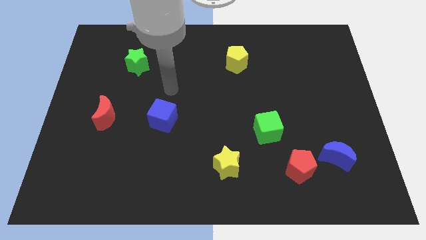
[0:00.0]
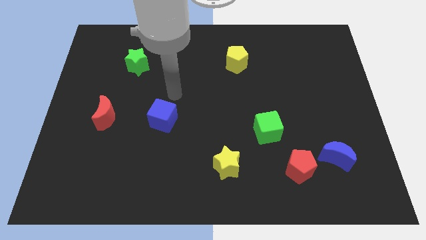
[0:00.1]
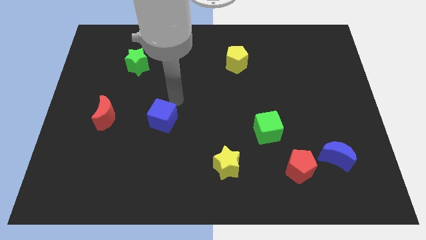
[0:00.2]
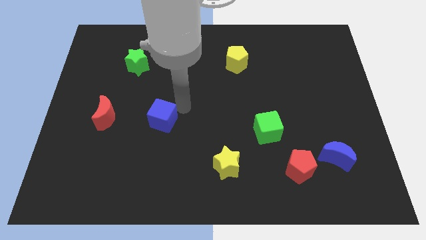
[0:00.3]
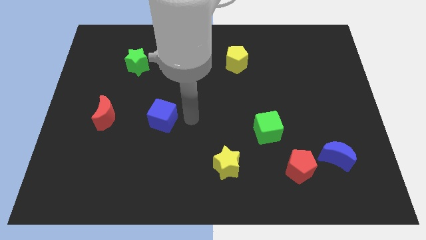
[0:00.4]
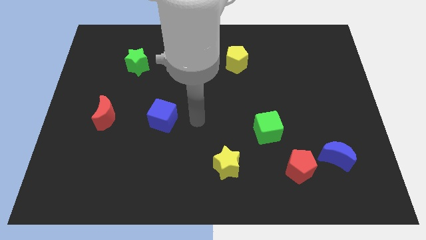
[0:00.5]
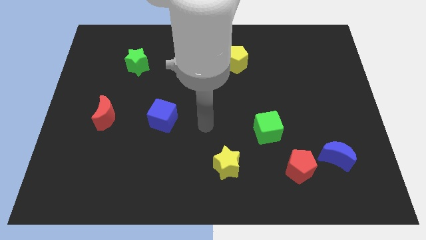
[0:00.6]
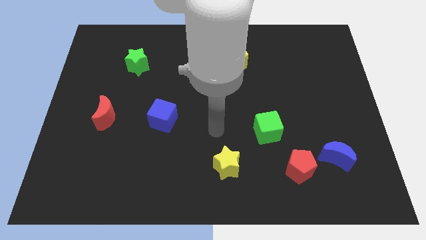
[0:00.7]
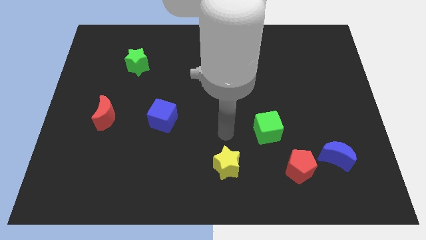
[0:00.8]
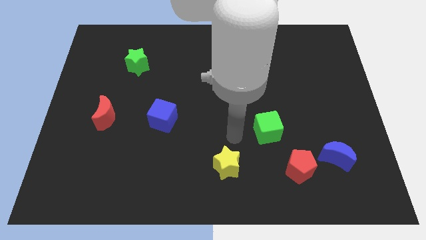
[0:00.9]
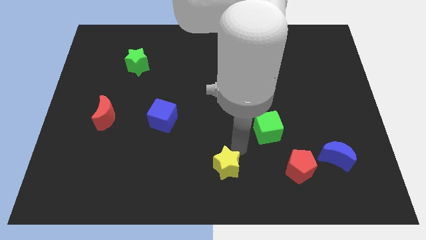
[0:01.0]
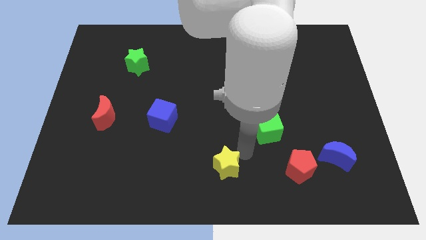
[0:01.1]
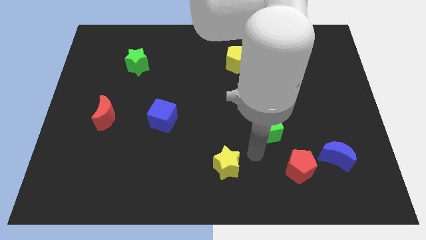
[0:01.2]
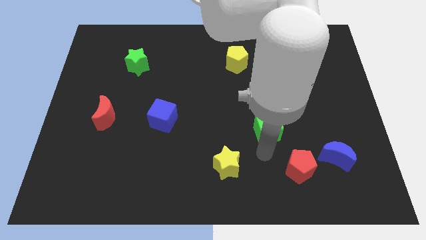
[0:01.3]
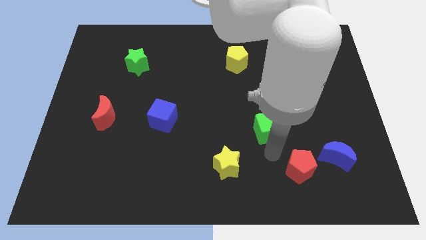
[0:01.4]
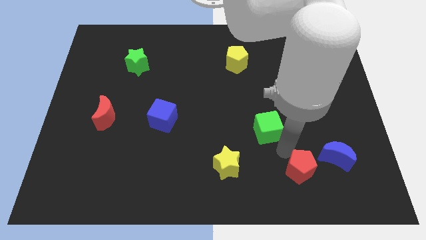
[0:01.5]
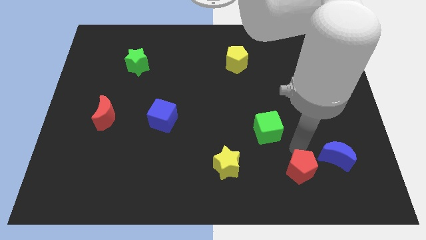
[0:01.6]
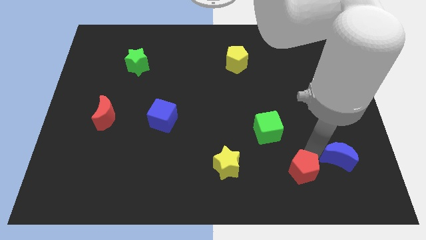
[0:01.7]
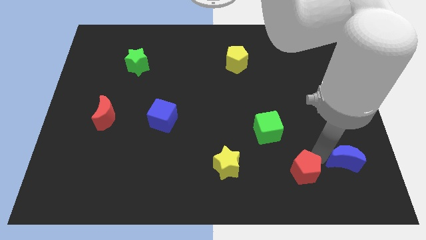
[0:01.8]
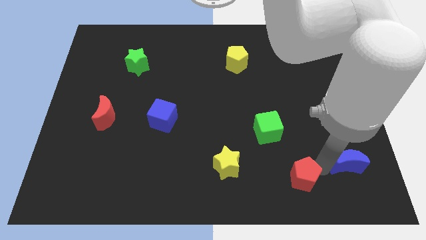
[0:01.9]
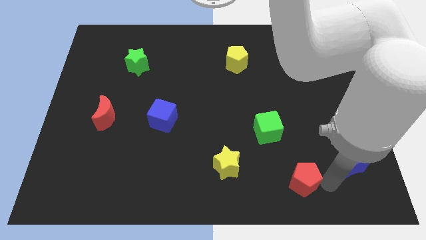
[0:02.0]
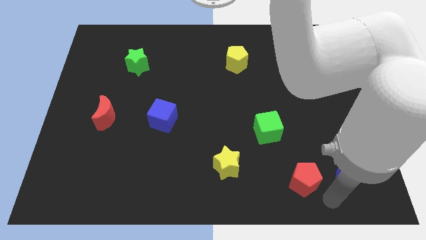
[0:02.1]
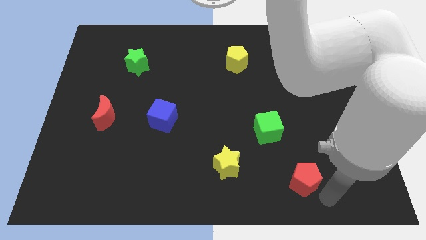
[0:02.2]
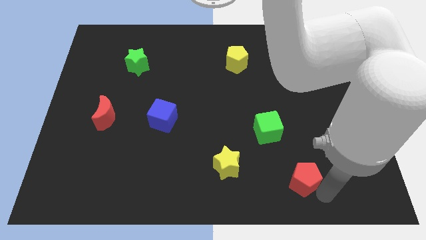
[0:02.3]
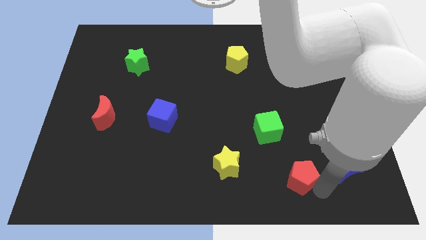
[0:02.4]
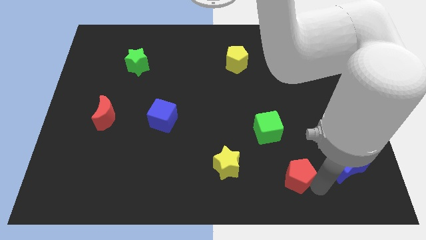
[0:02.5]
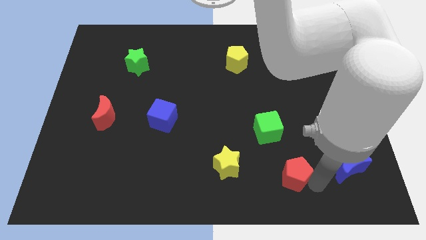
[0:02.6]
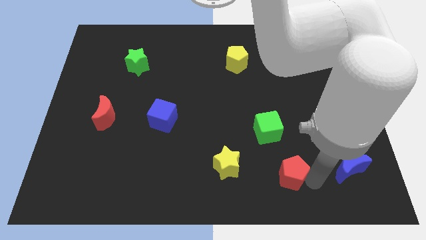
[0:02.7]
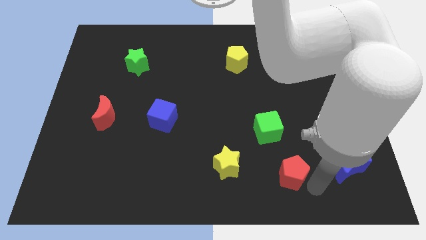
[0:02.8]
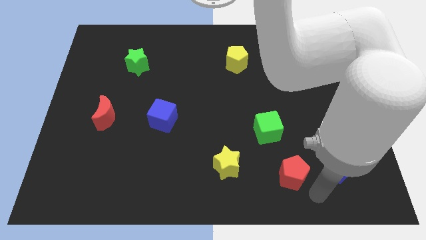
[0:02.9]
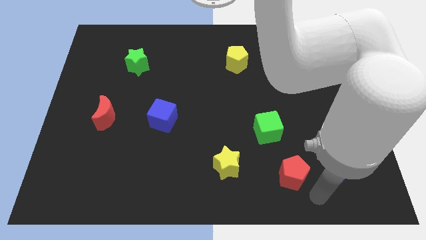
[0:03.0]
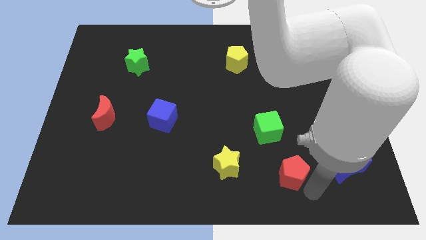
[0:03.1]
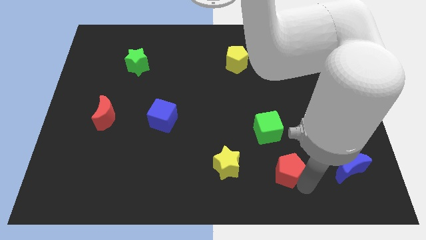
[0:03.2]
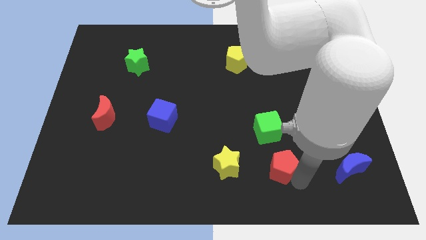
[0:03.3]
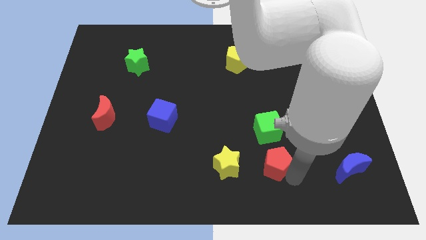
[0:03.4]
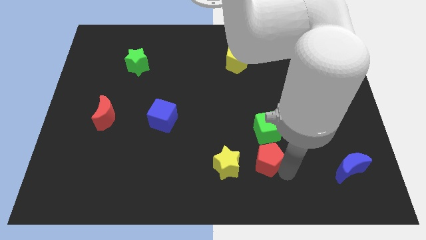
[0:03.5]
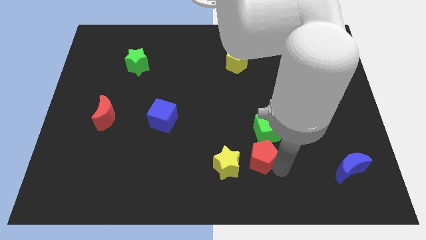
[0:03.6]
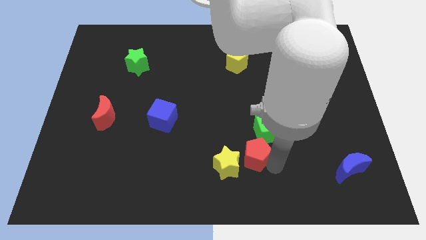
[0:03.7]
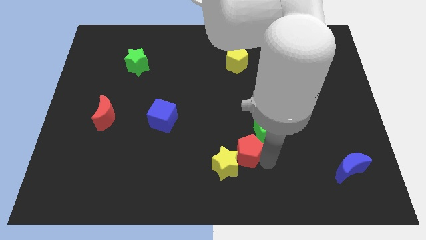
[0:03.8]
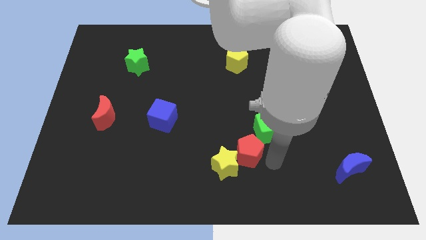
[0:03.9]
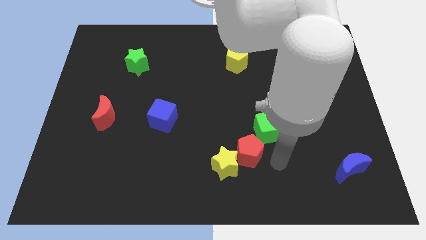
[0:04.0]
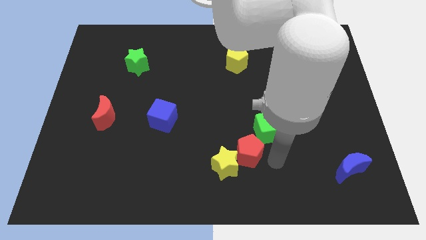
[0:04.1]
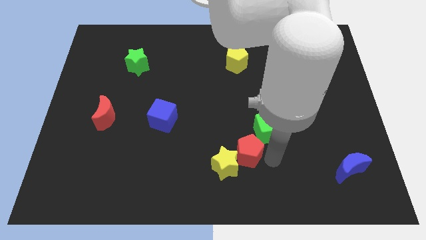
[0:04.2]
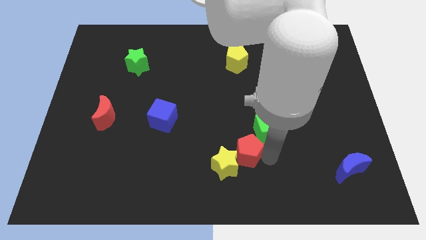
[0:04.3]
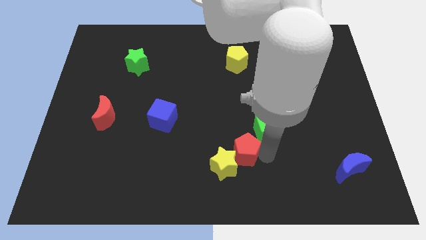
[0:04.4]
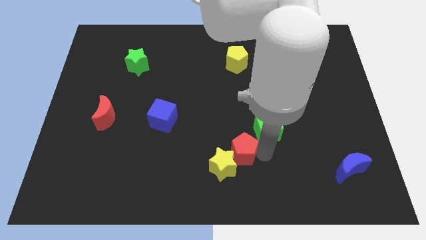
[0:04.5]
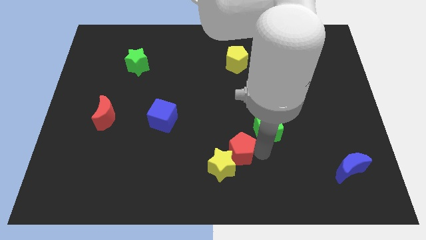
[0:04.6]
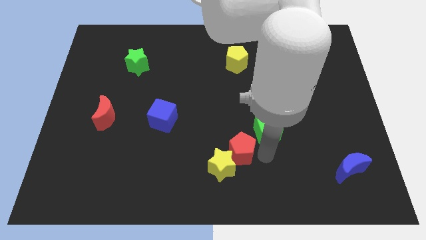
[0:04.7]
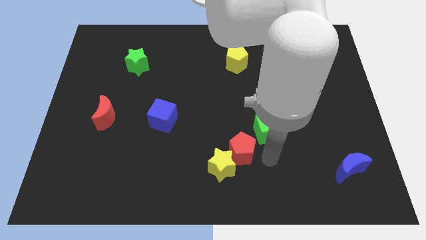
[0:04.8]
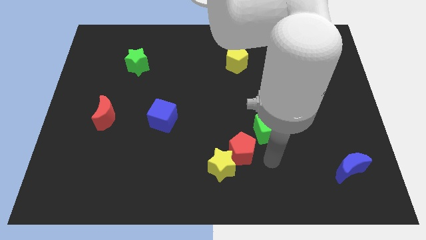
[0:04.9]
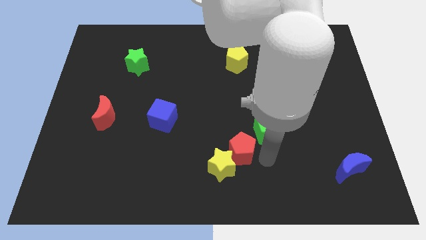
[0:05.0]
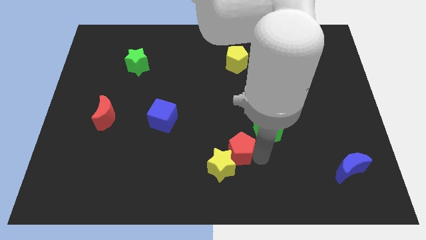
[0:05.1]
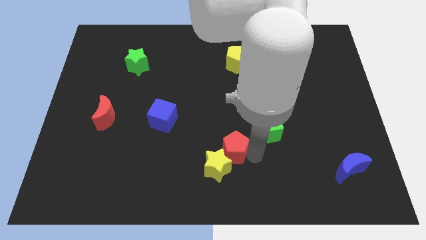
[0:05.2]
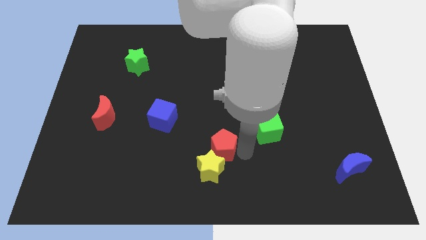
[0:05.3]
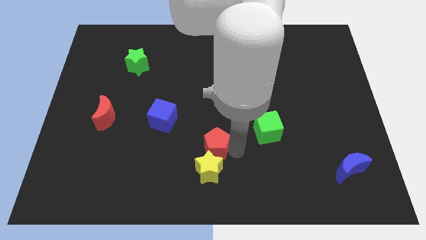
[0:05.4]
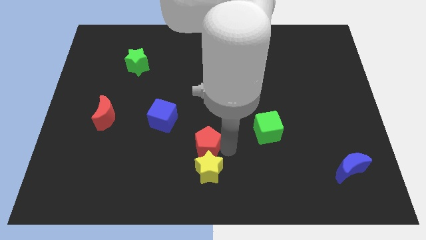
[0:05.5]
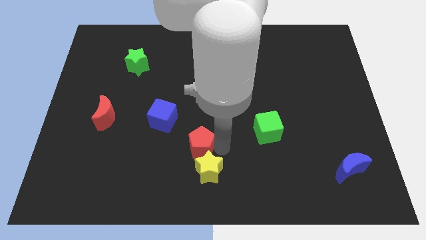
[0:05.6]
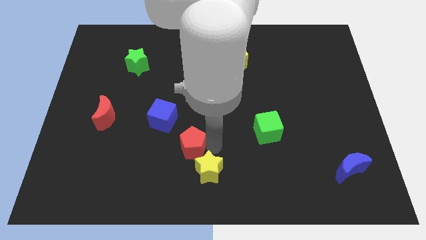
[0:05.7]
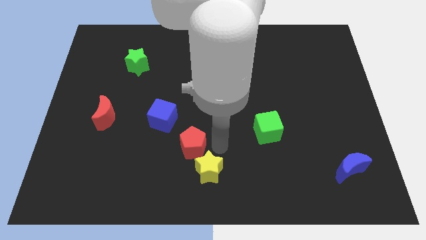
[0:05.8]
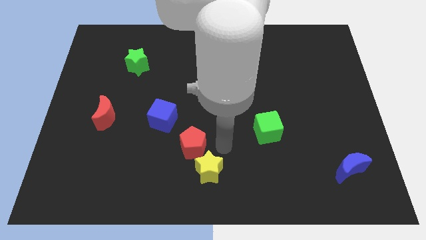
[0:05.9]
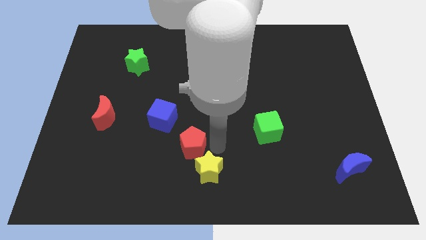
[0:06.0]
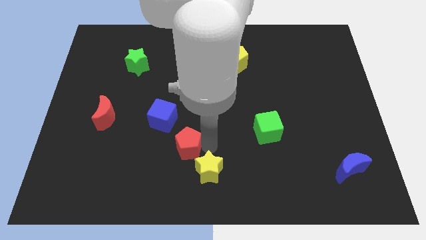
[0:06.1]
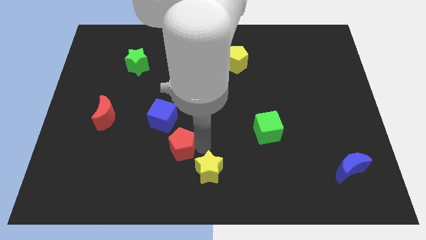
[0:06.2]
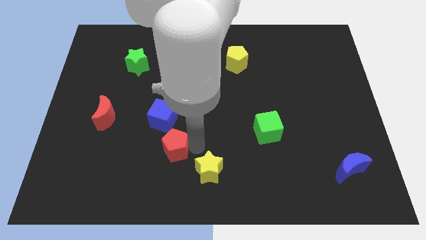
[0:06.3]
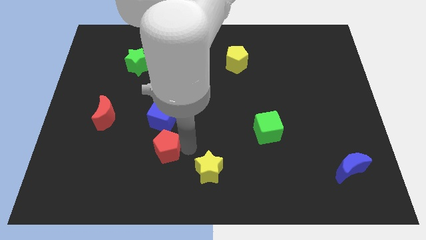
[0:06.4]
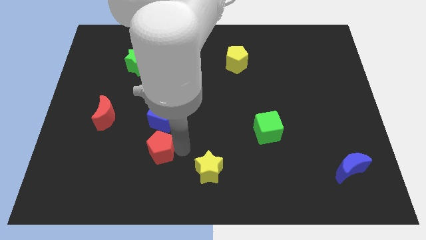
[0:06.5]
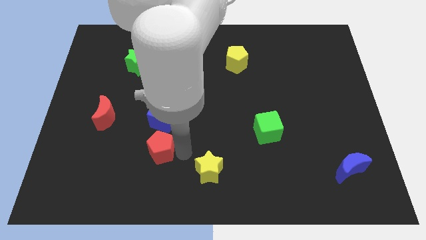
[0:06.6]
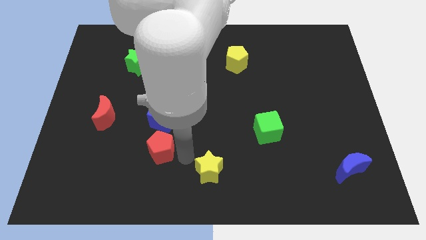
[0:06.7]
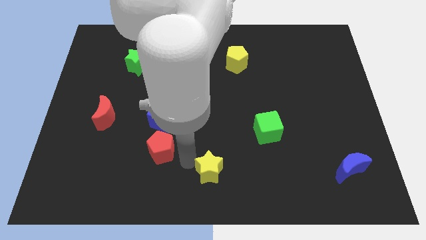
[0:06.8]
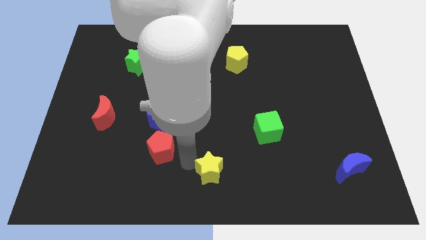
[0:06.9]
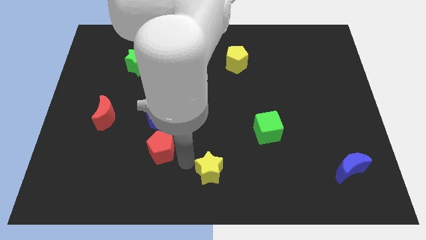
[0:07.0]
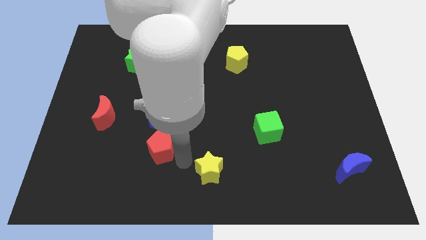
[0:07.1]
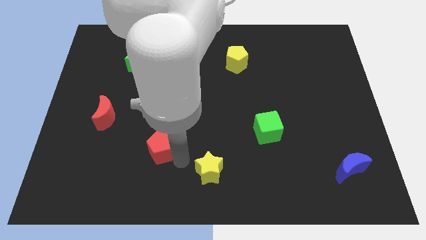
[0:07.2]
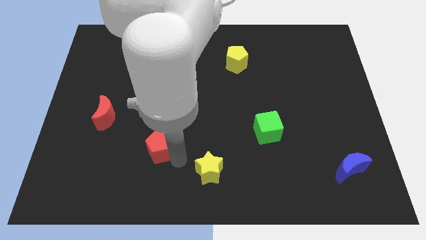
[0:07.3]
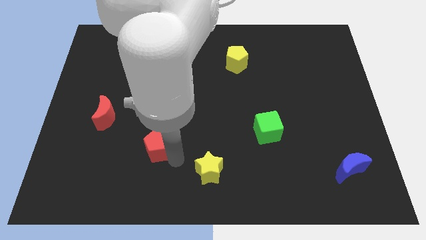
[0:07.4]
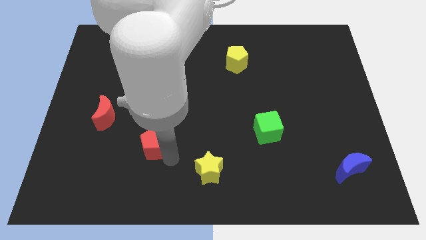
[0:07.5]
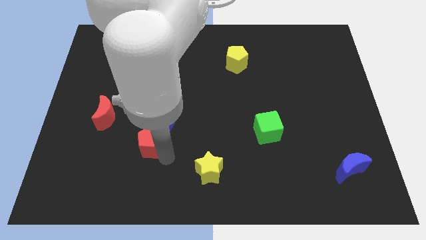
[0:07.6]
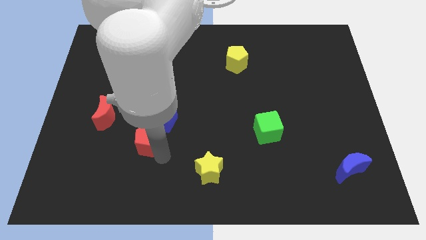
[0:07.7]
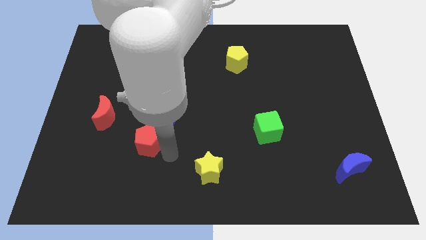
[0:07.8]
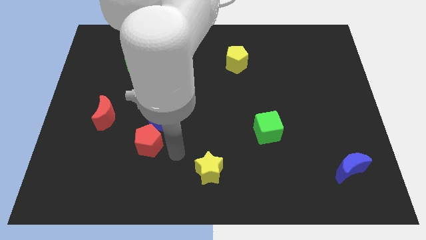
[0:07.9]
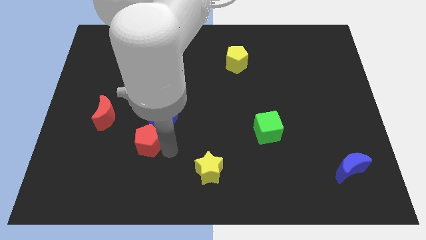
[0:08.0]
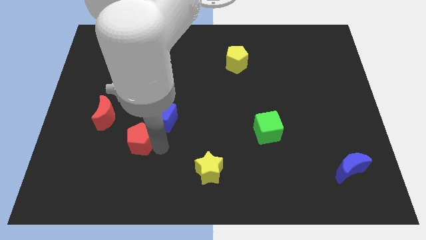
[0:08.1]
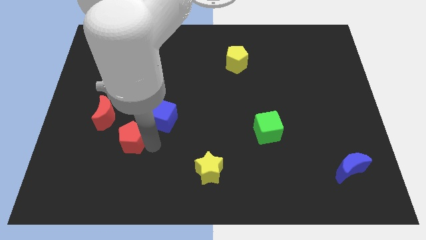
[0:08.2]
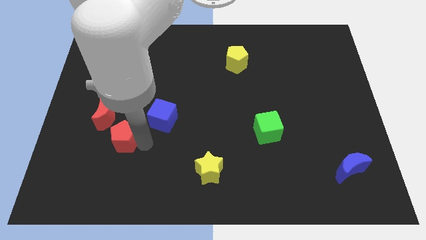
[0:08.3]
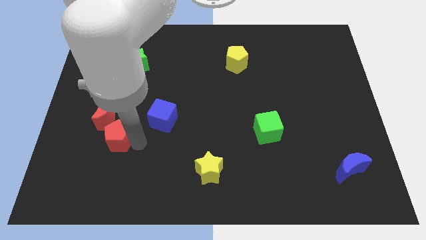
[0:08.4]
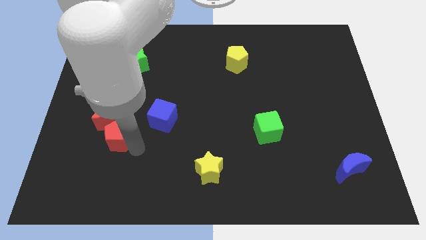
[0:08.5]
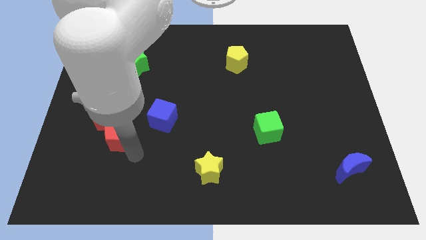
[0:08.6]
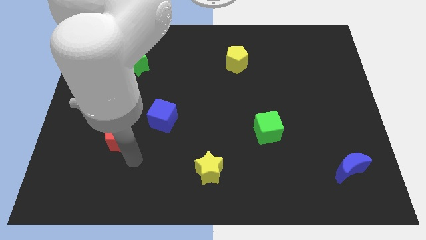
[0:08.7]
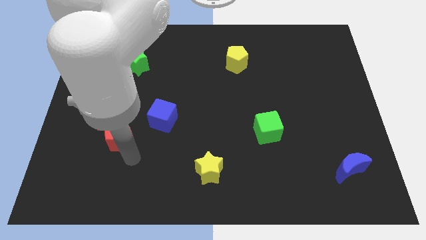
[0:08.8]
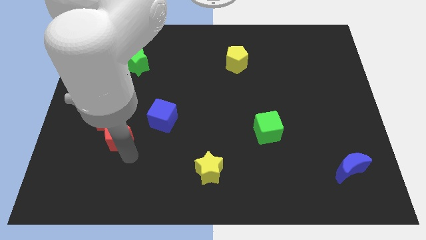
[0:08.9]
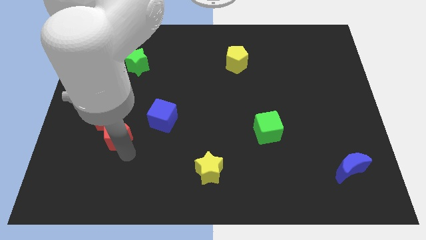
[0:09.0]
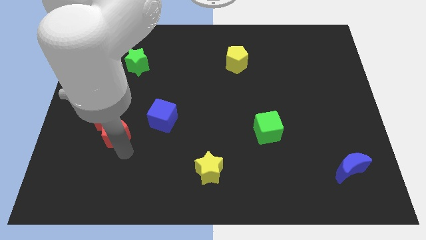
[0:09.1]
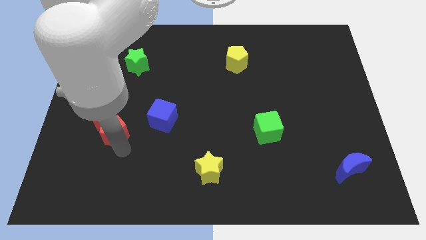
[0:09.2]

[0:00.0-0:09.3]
push the red pentagon next to the red moon
